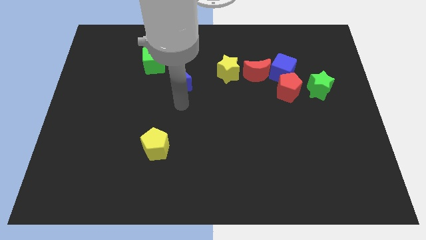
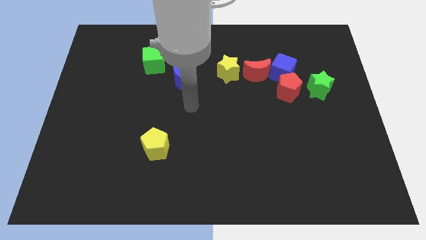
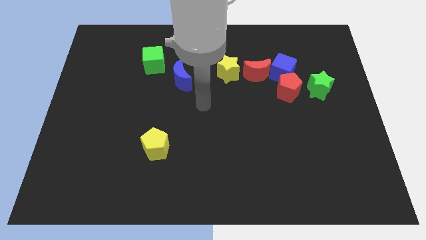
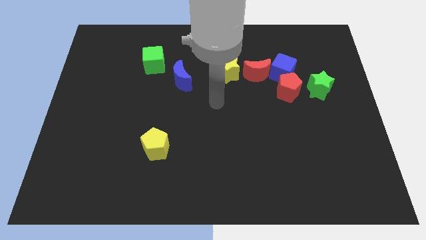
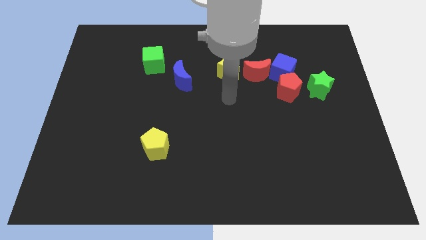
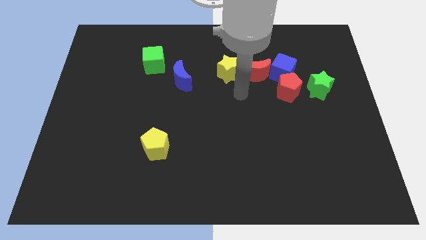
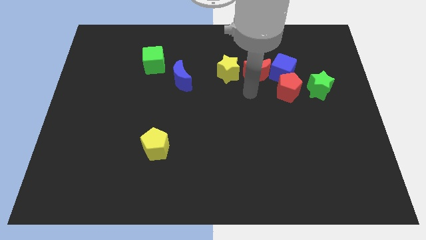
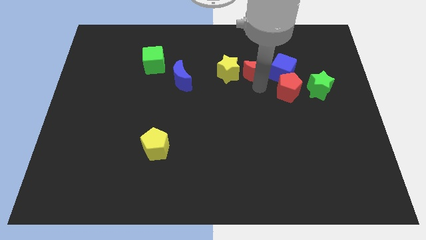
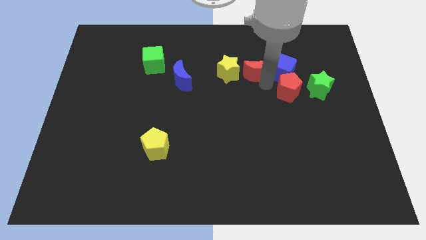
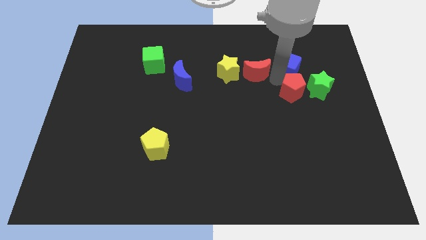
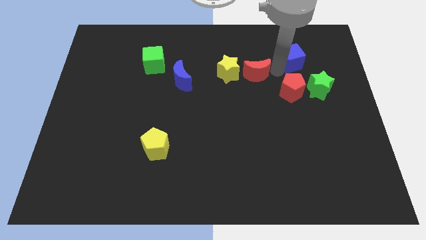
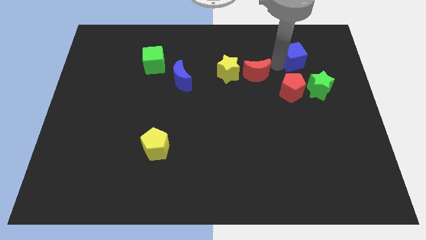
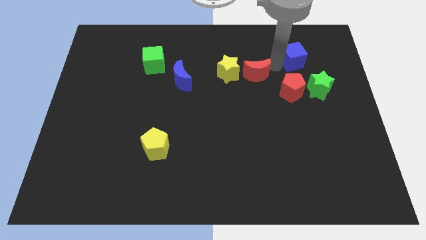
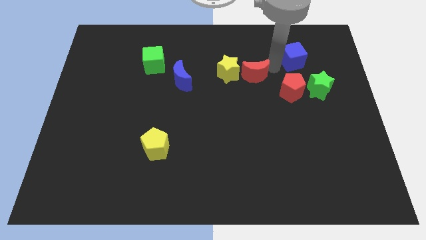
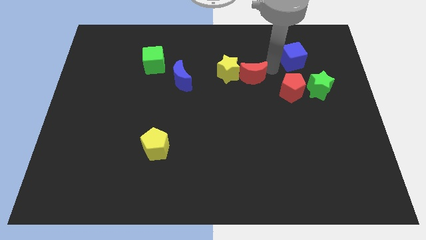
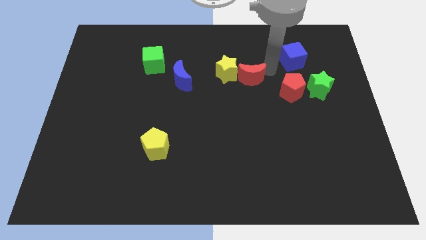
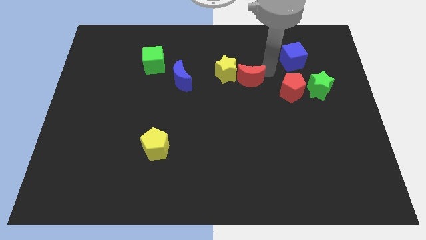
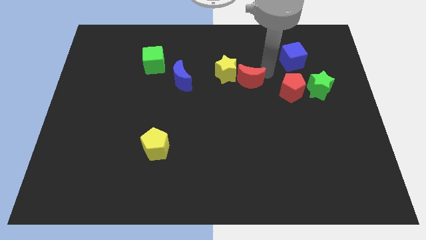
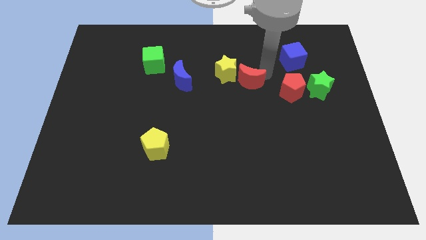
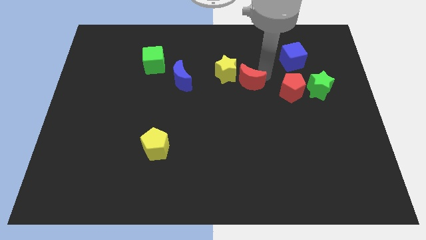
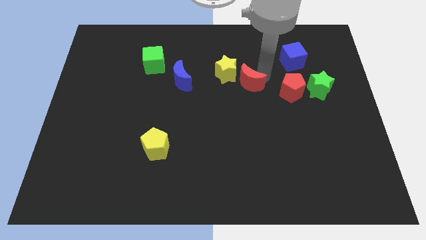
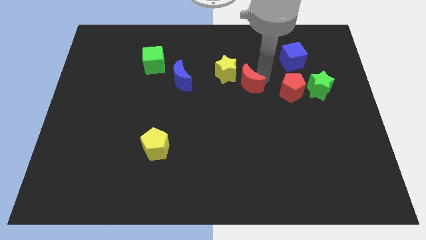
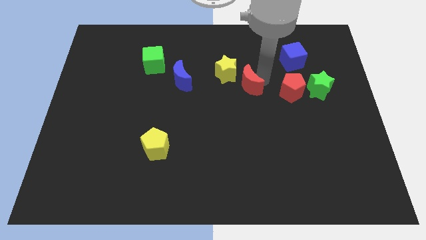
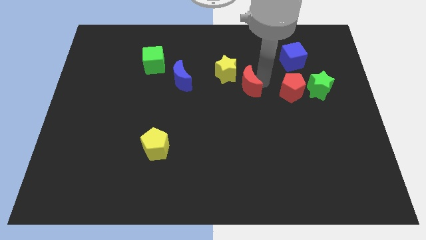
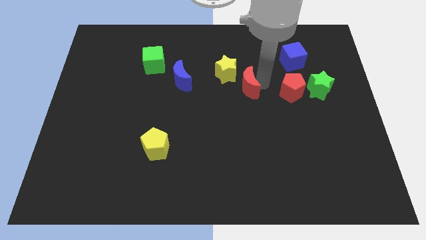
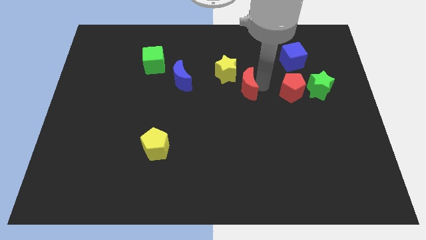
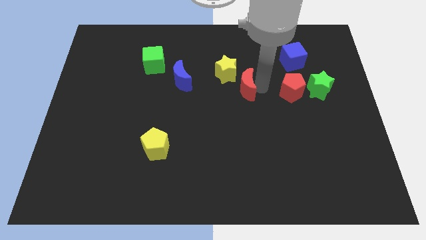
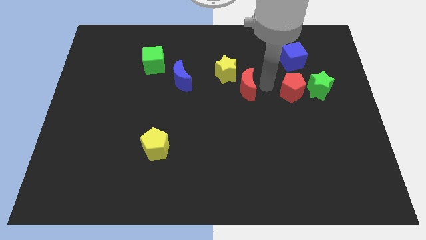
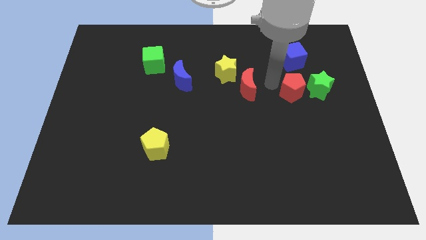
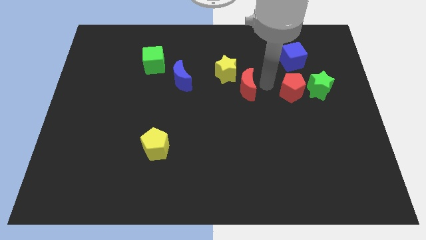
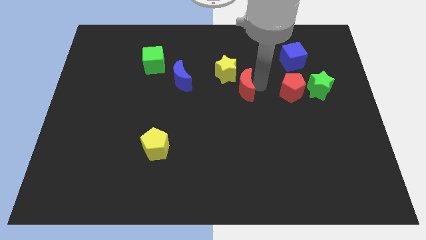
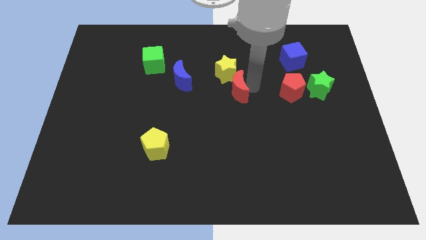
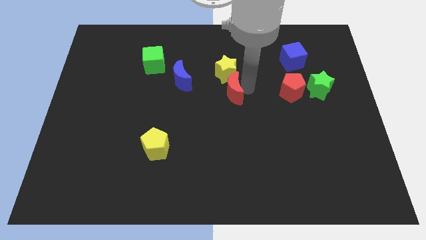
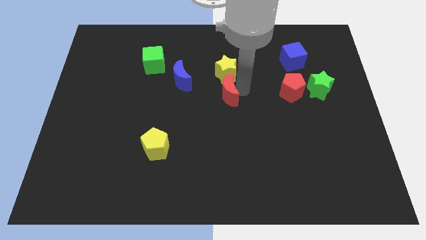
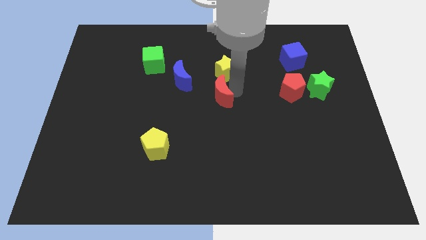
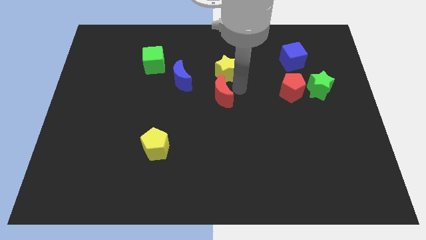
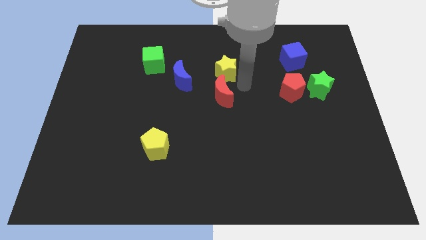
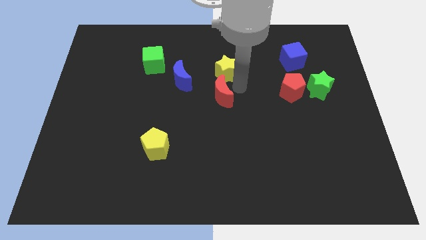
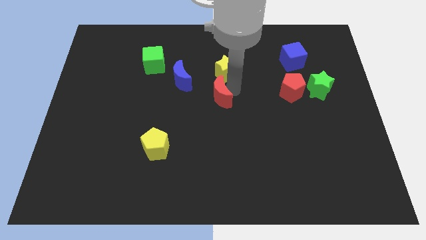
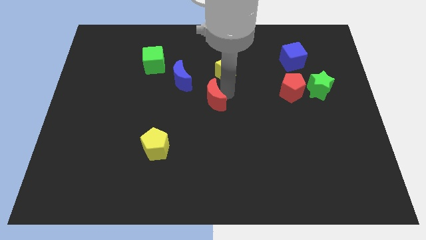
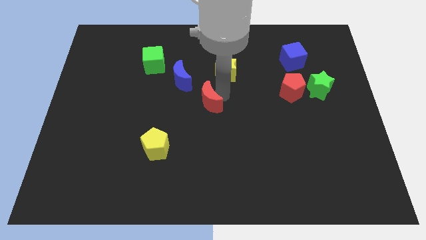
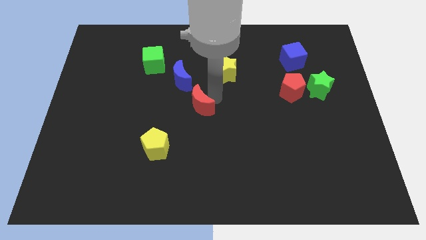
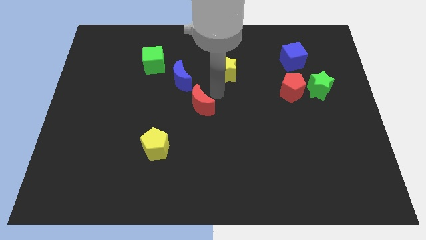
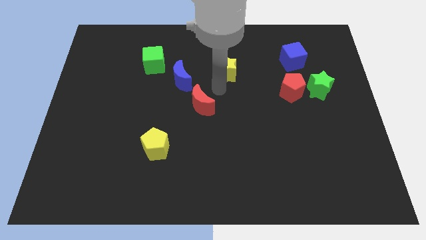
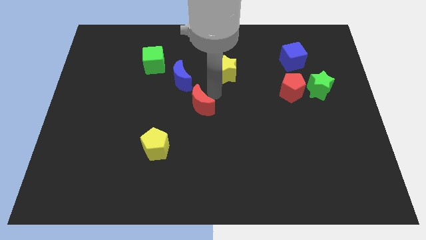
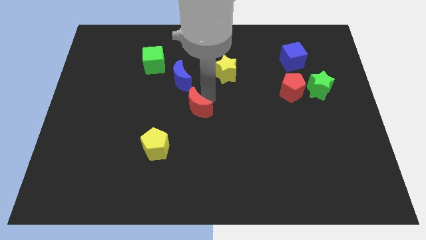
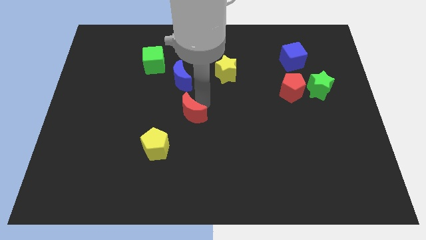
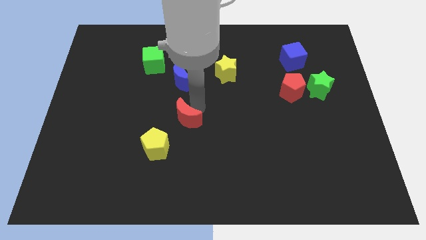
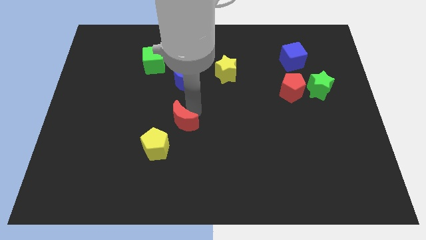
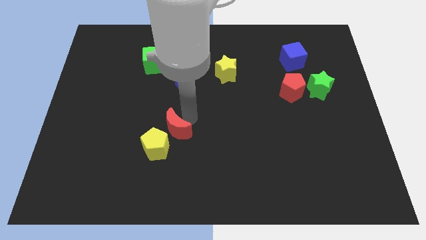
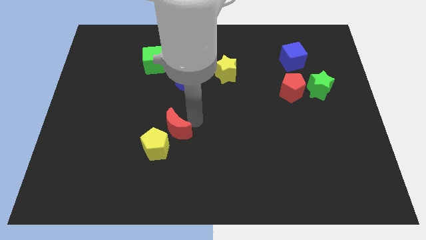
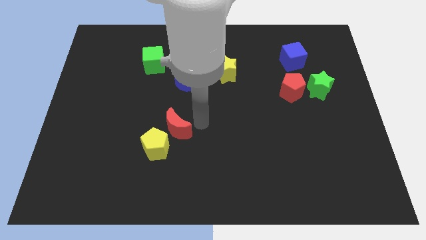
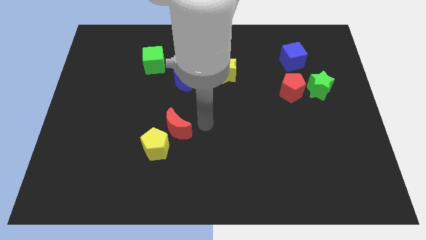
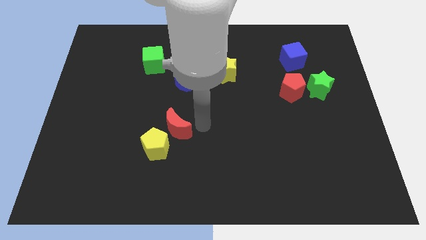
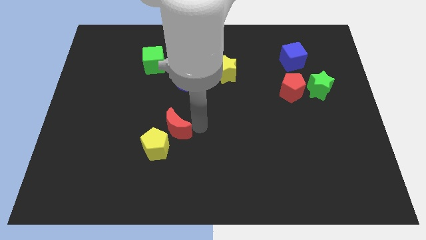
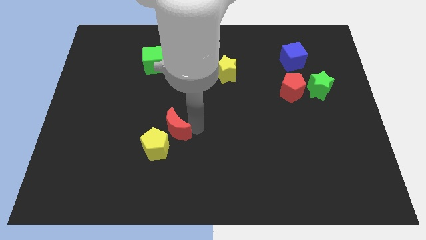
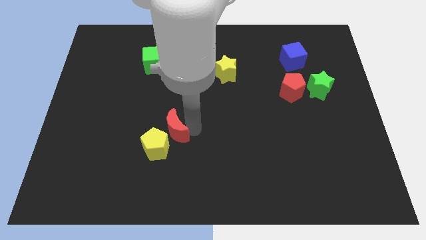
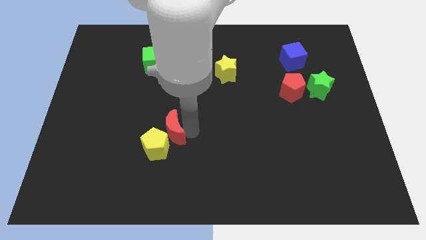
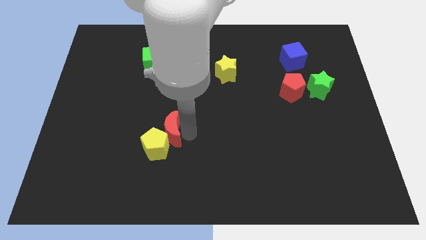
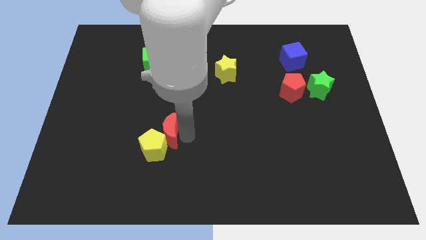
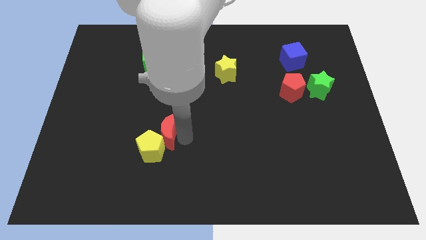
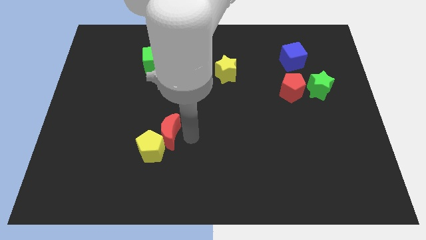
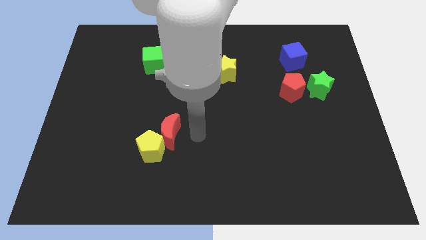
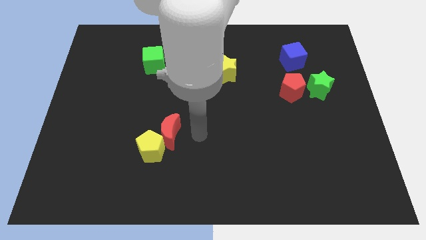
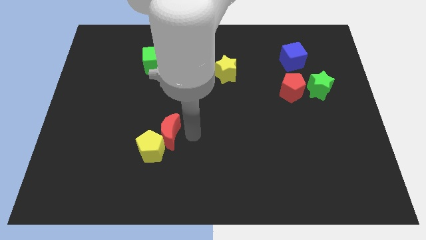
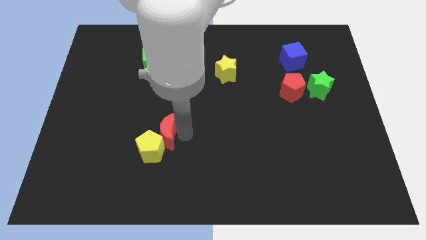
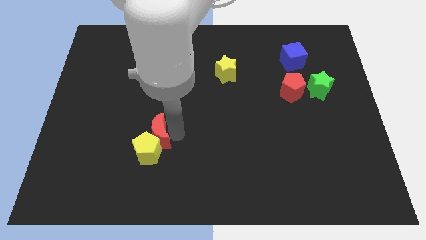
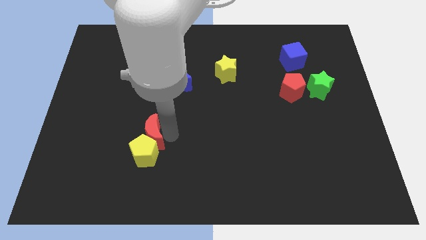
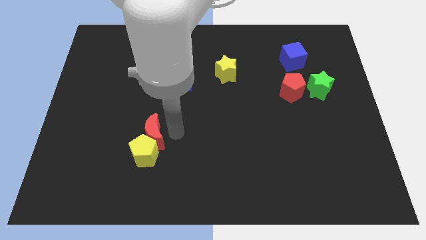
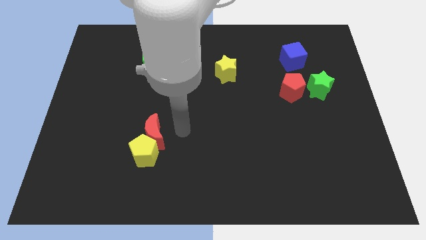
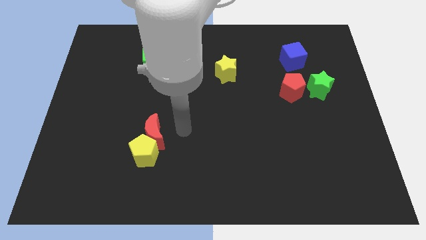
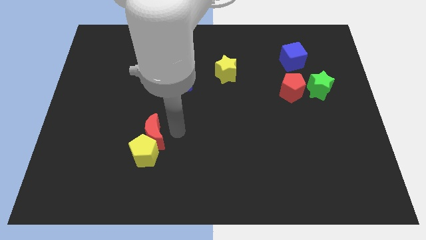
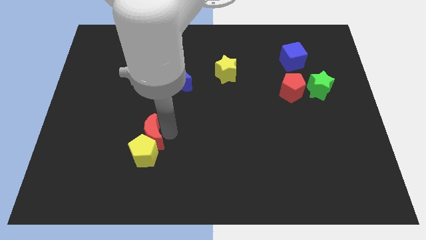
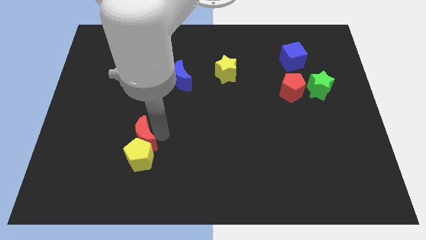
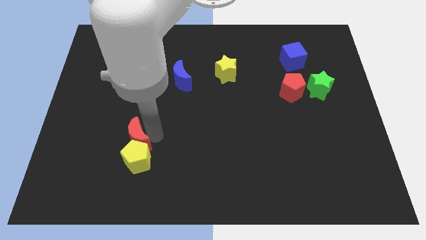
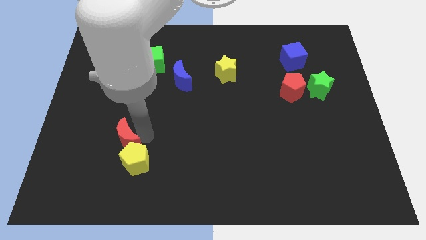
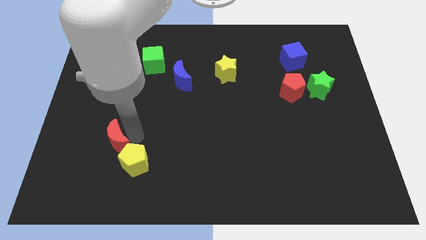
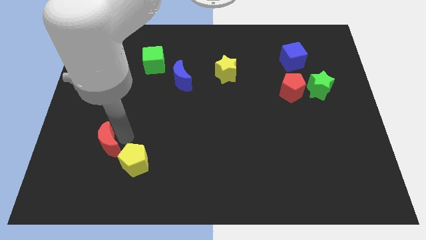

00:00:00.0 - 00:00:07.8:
slide the red moon to the left of the yellow pentagon
